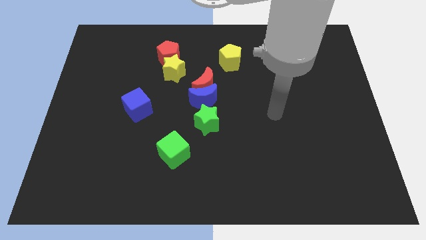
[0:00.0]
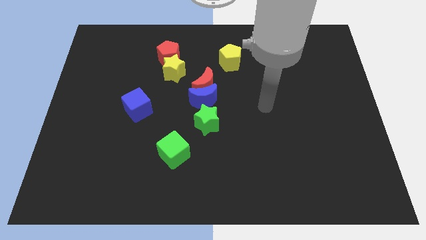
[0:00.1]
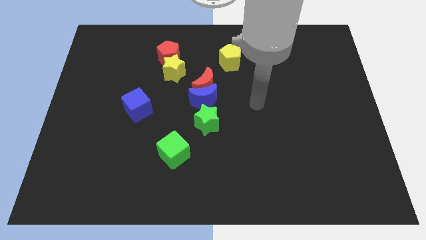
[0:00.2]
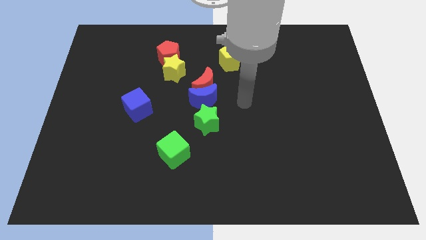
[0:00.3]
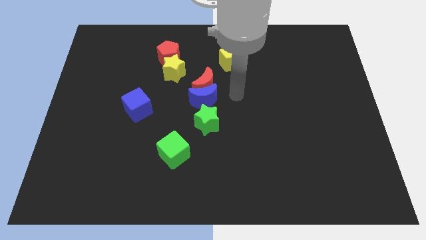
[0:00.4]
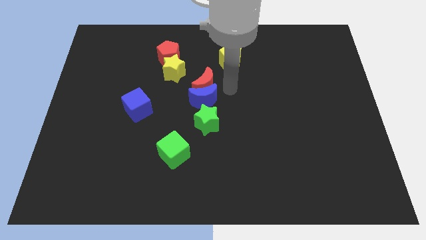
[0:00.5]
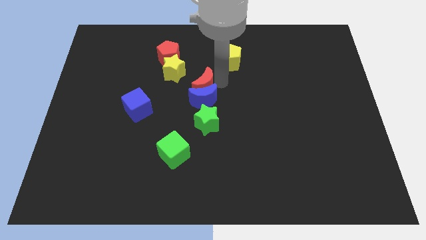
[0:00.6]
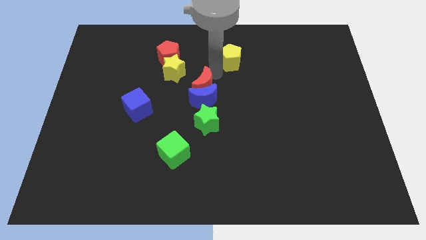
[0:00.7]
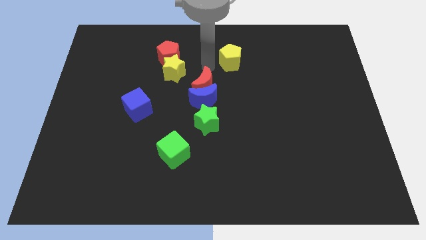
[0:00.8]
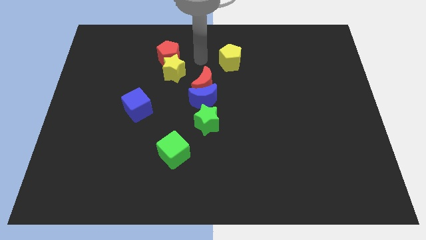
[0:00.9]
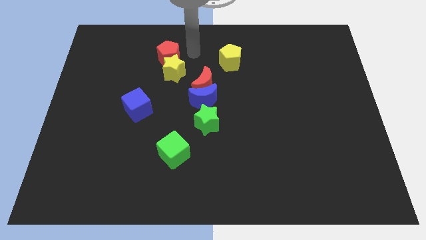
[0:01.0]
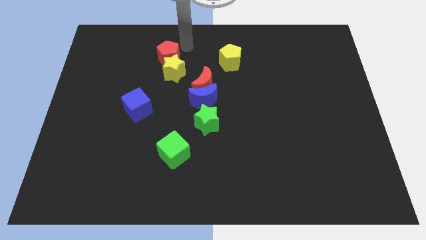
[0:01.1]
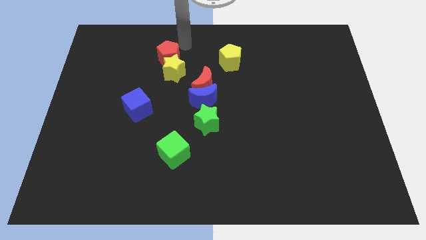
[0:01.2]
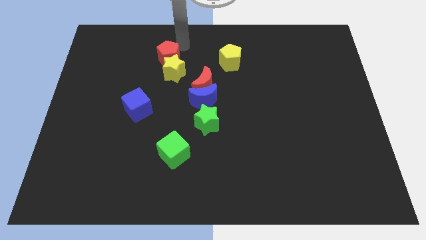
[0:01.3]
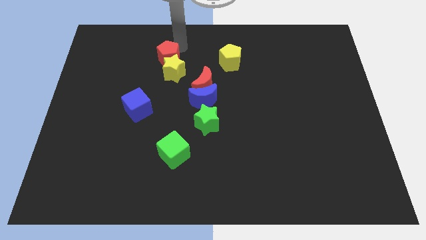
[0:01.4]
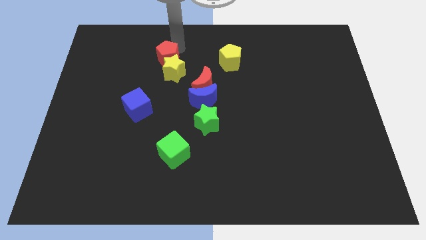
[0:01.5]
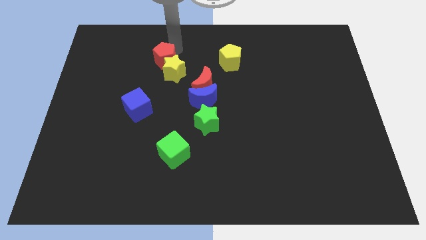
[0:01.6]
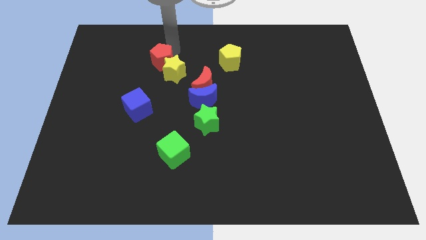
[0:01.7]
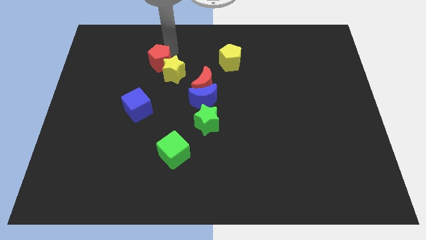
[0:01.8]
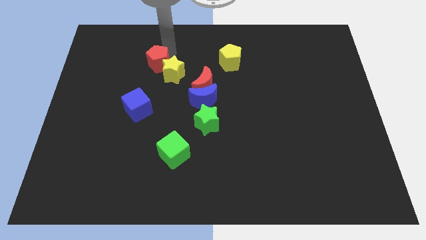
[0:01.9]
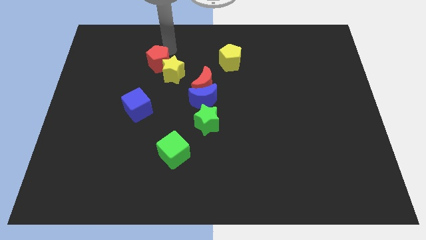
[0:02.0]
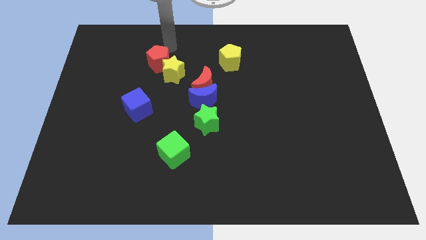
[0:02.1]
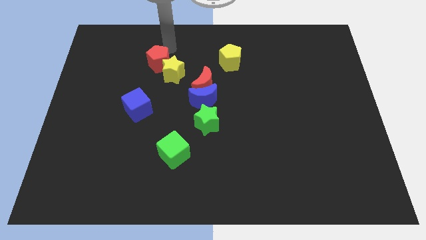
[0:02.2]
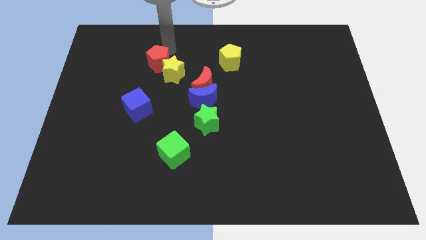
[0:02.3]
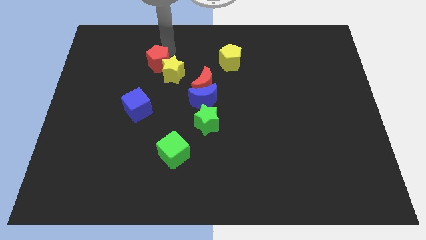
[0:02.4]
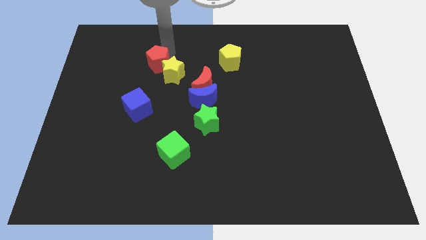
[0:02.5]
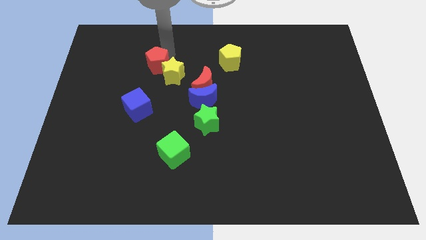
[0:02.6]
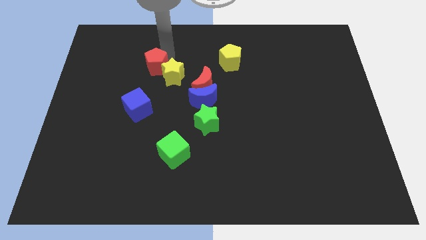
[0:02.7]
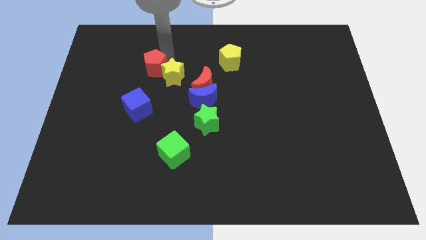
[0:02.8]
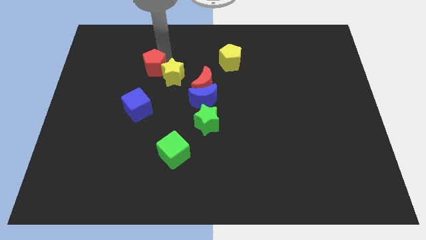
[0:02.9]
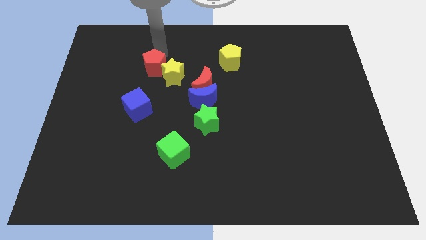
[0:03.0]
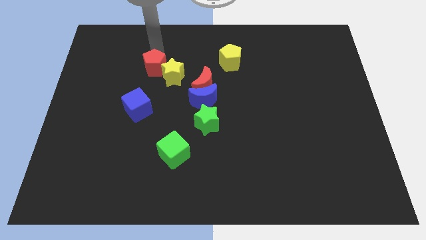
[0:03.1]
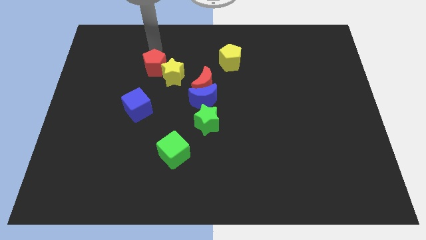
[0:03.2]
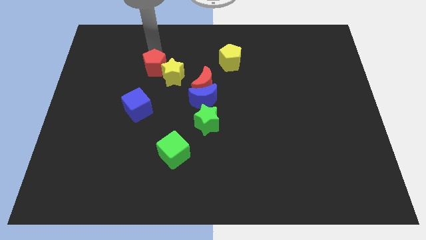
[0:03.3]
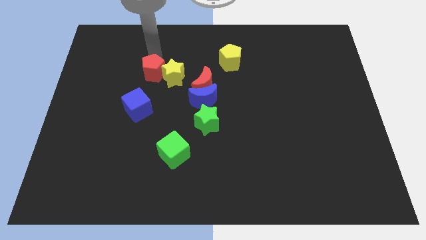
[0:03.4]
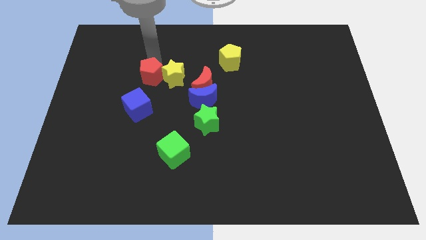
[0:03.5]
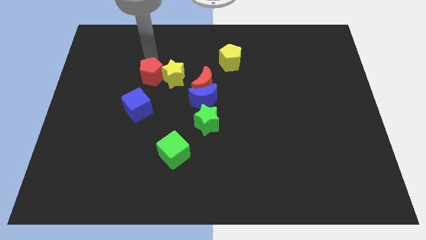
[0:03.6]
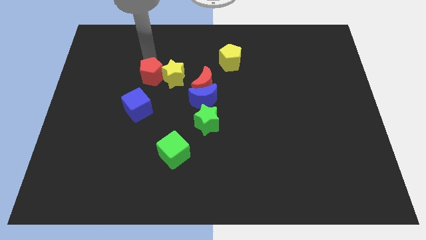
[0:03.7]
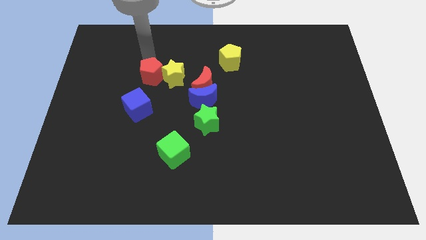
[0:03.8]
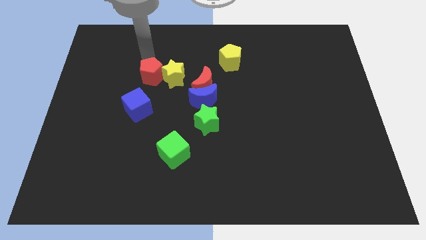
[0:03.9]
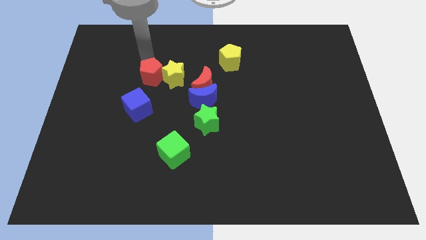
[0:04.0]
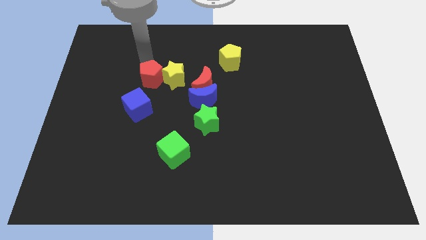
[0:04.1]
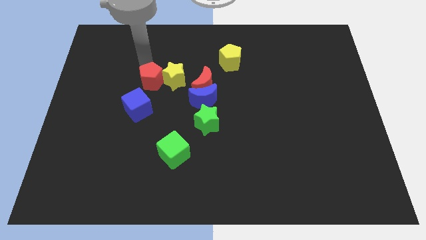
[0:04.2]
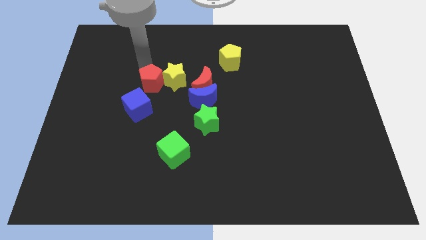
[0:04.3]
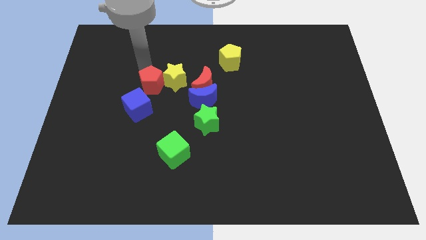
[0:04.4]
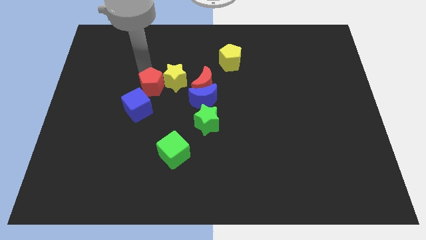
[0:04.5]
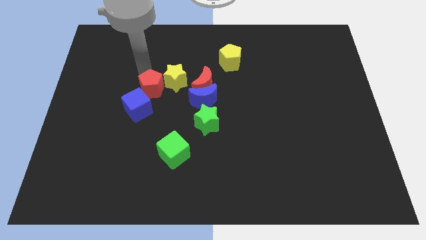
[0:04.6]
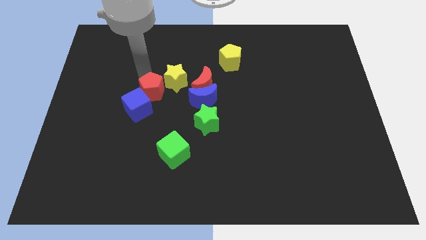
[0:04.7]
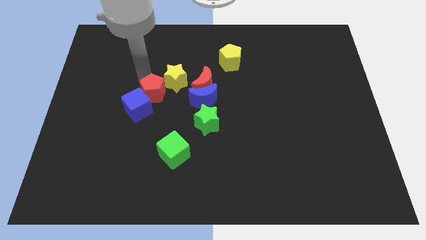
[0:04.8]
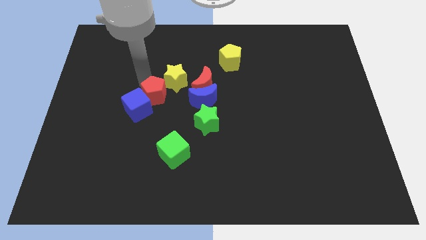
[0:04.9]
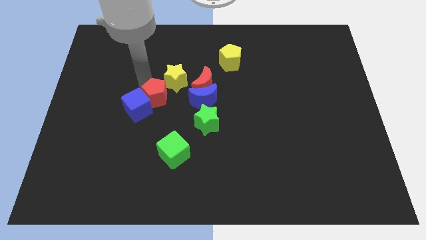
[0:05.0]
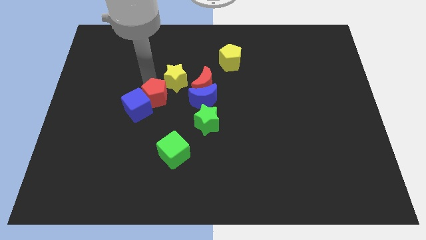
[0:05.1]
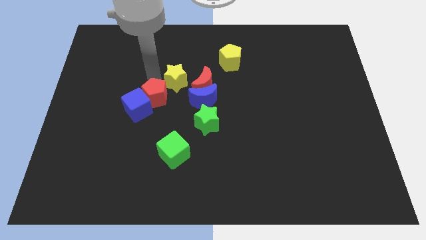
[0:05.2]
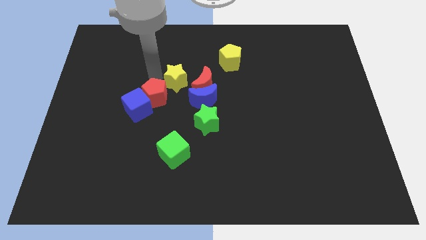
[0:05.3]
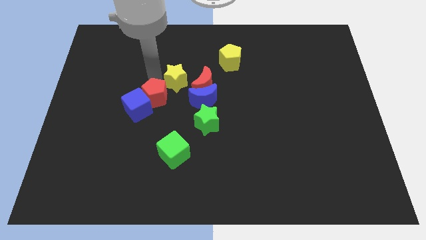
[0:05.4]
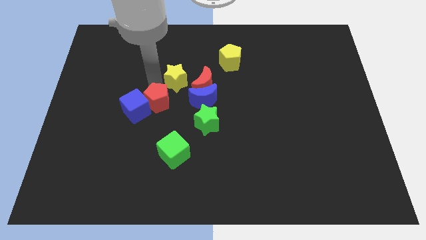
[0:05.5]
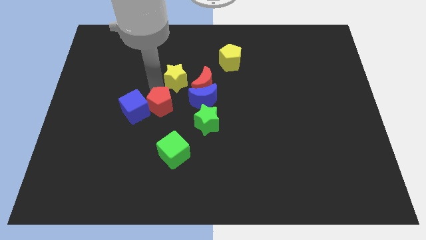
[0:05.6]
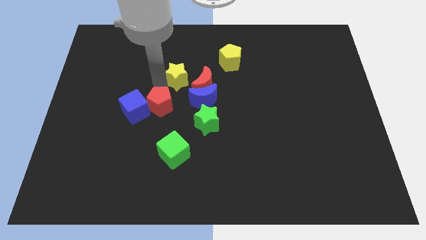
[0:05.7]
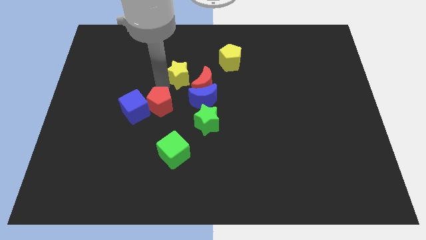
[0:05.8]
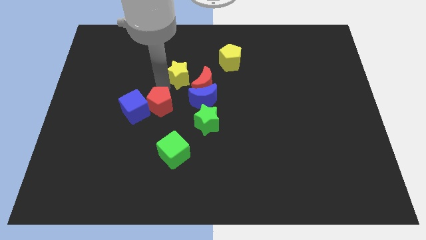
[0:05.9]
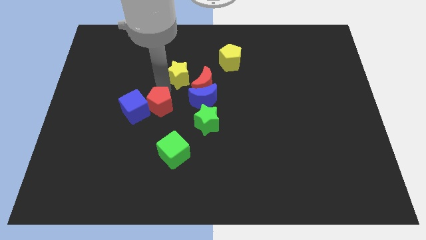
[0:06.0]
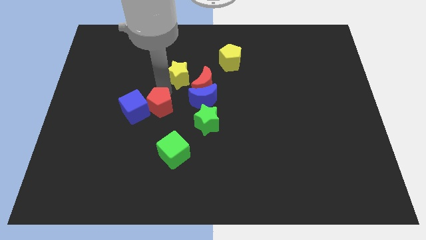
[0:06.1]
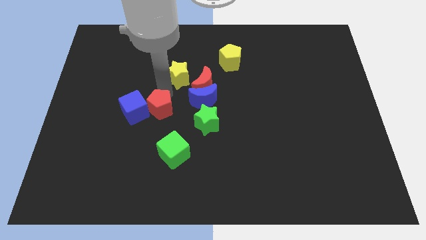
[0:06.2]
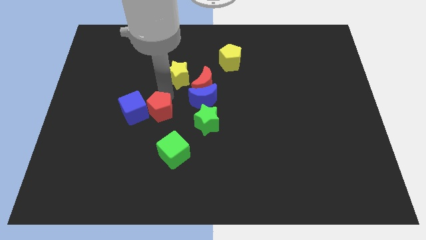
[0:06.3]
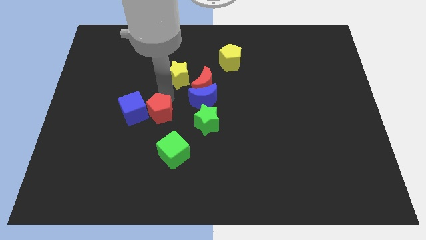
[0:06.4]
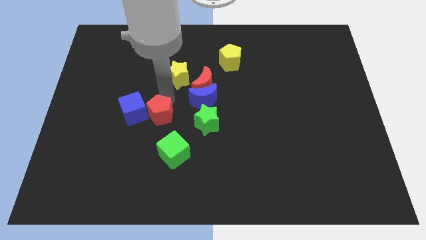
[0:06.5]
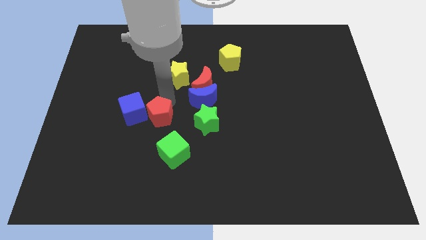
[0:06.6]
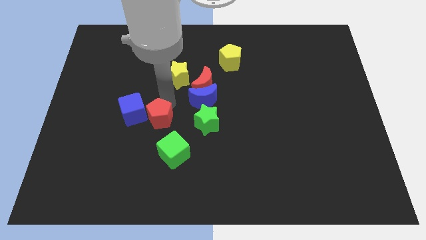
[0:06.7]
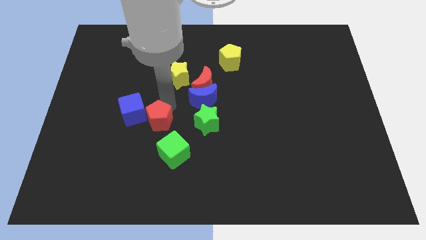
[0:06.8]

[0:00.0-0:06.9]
push the red pentagon down

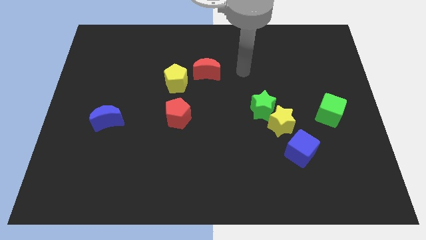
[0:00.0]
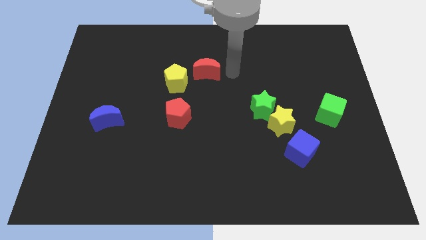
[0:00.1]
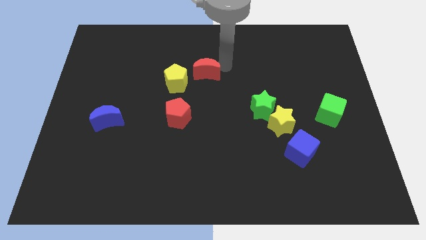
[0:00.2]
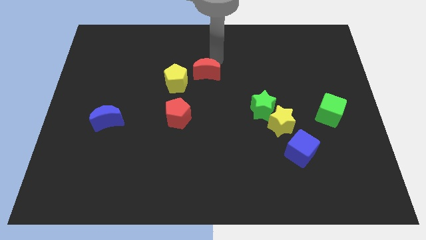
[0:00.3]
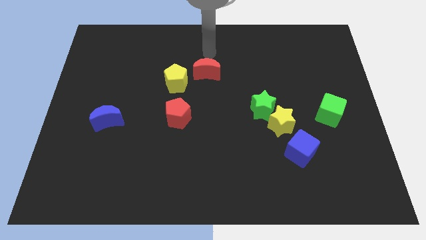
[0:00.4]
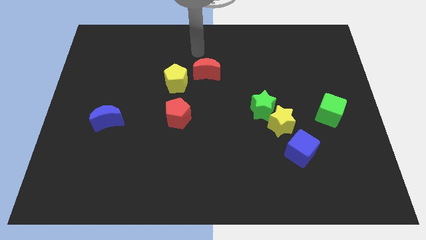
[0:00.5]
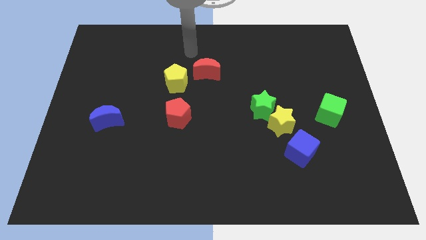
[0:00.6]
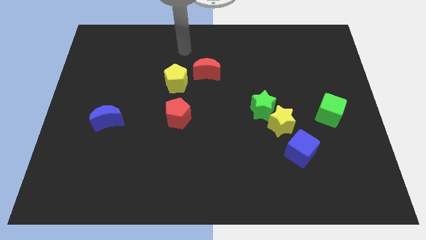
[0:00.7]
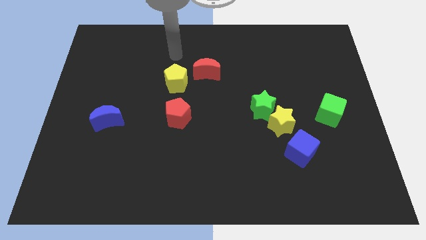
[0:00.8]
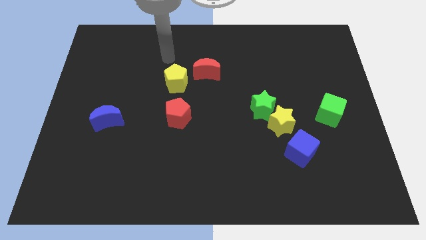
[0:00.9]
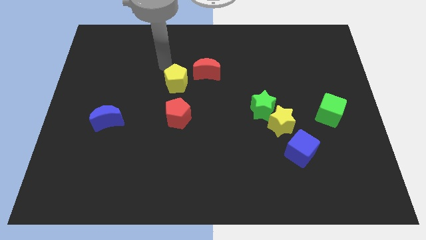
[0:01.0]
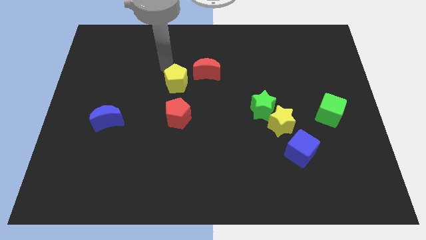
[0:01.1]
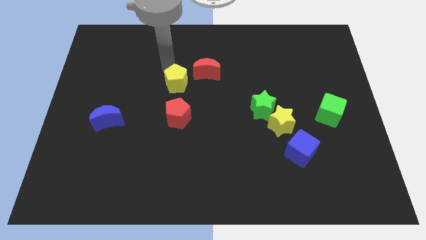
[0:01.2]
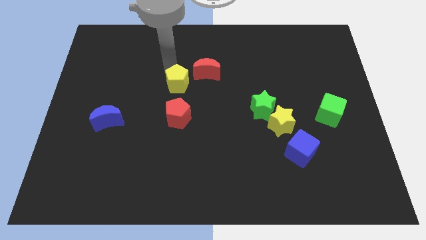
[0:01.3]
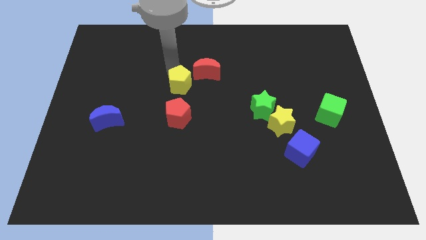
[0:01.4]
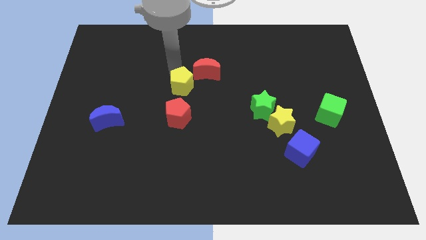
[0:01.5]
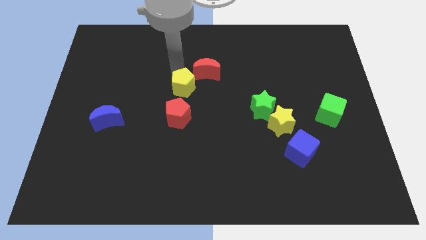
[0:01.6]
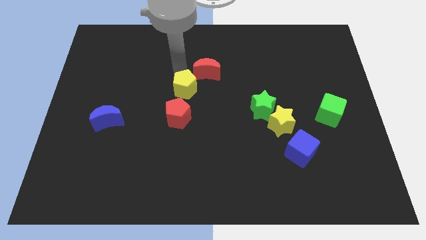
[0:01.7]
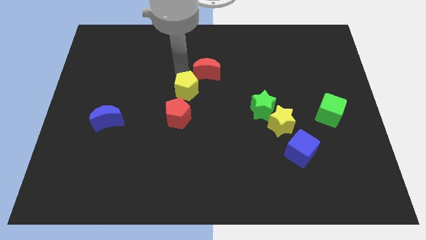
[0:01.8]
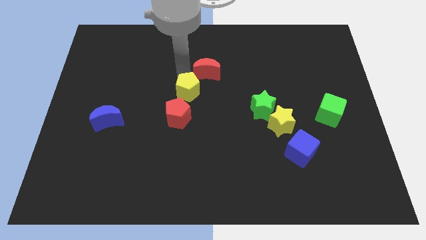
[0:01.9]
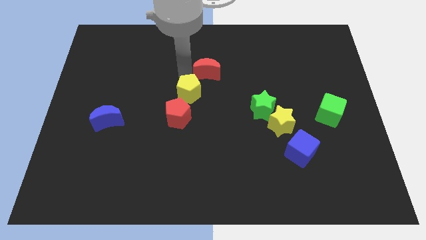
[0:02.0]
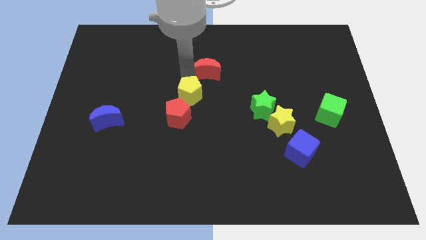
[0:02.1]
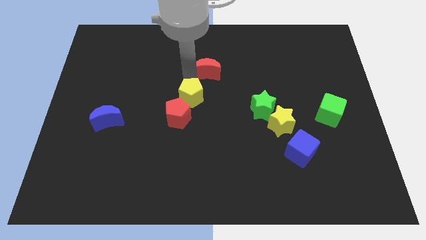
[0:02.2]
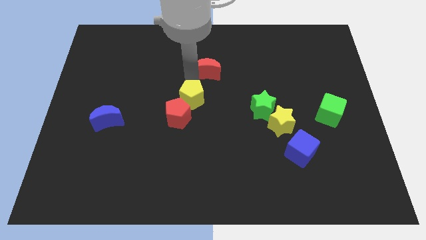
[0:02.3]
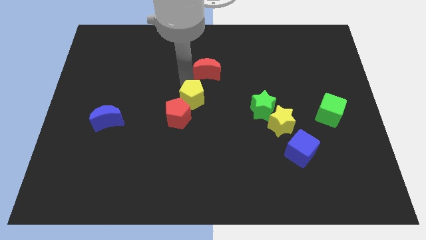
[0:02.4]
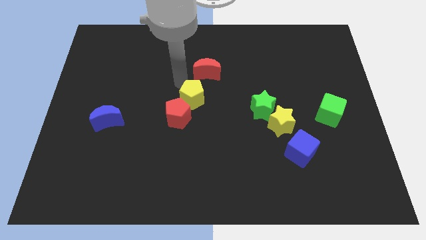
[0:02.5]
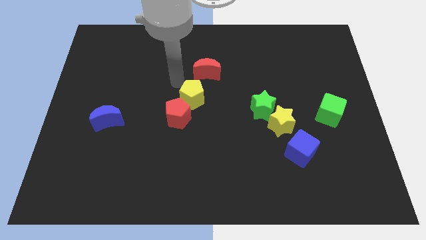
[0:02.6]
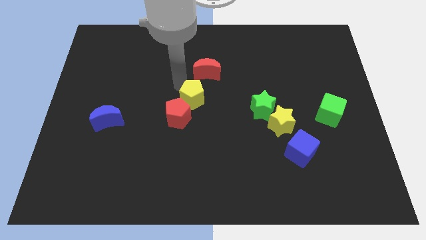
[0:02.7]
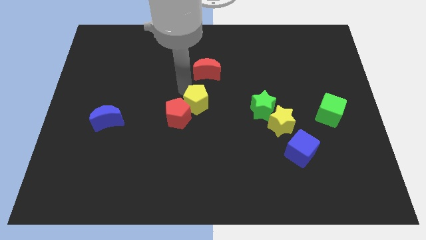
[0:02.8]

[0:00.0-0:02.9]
slightly slide the yellow pentagon down and then to the right
